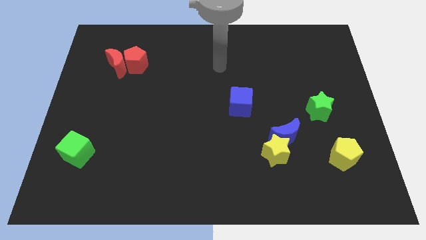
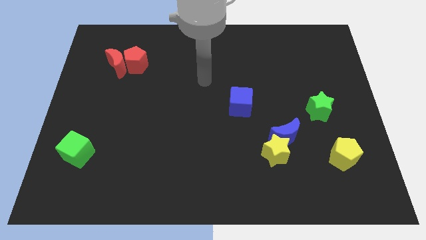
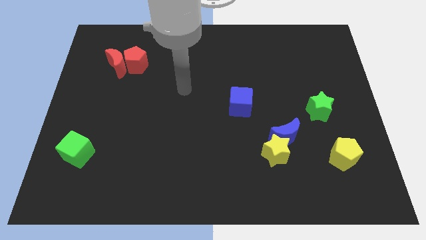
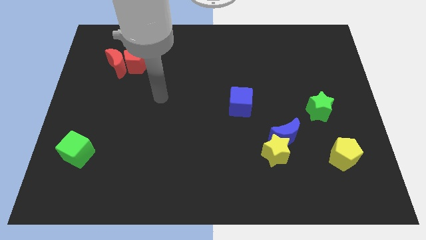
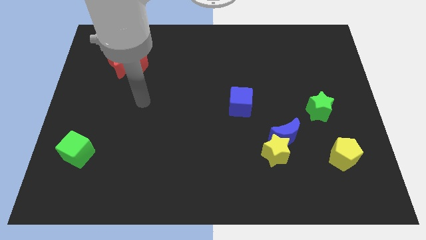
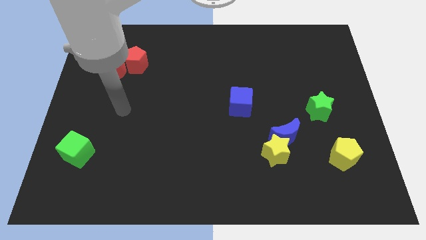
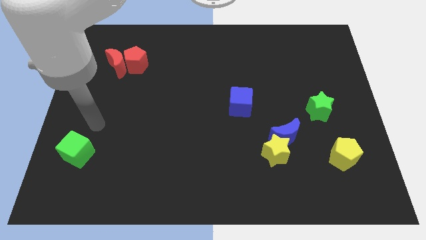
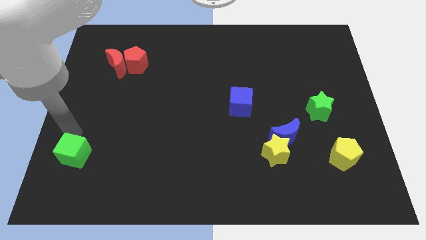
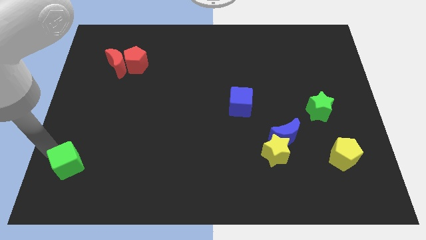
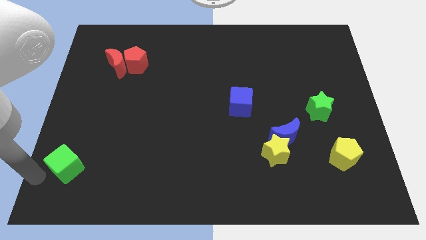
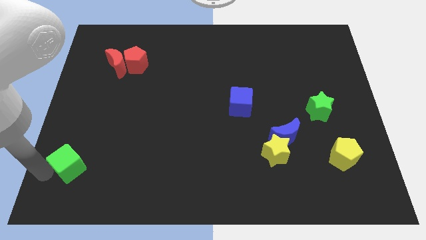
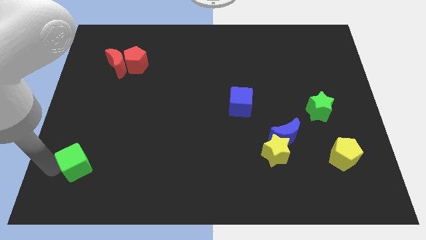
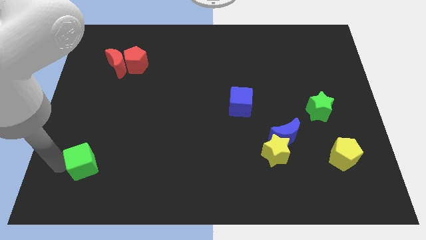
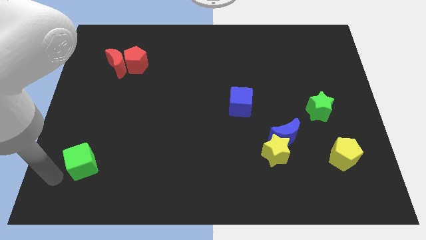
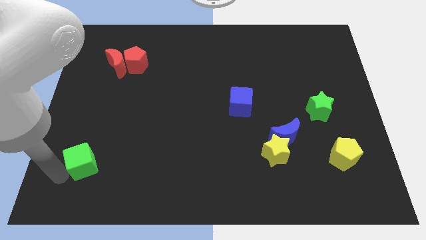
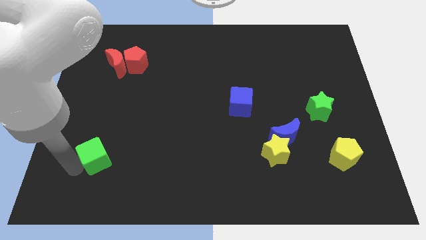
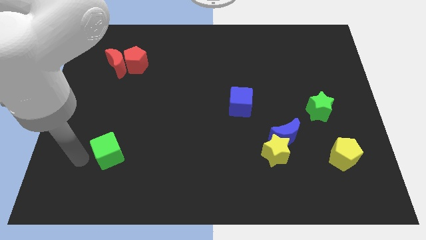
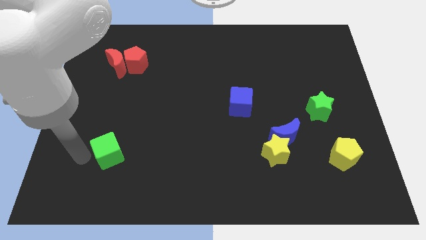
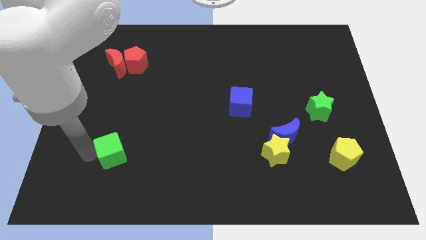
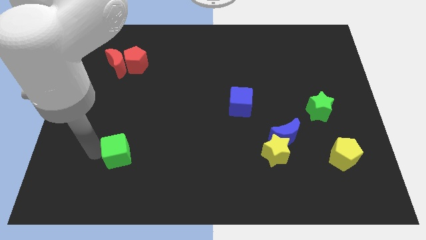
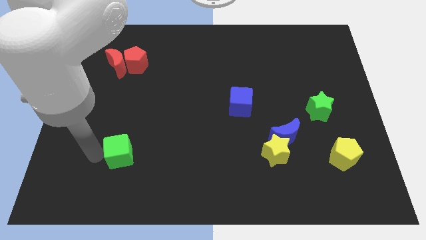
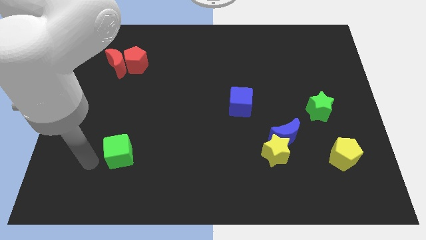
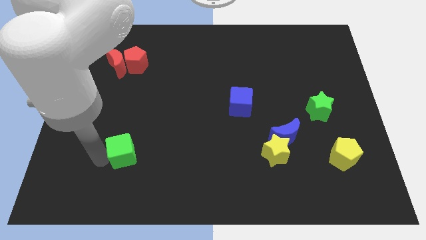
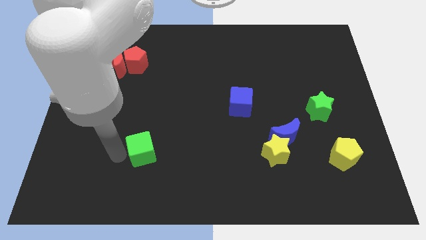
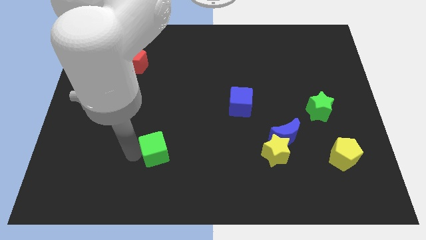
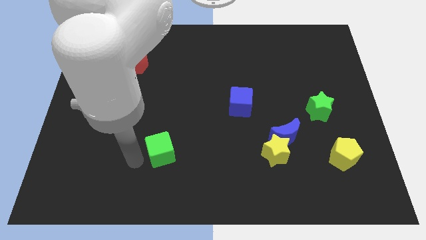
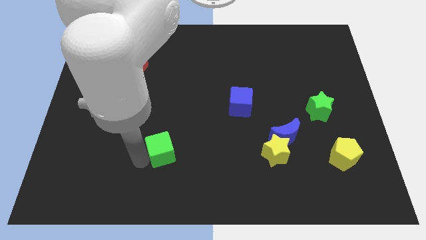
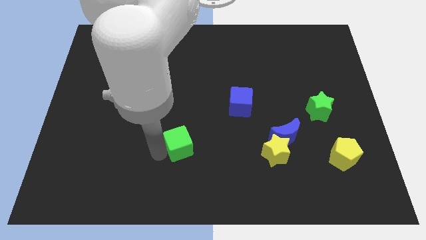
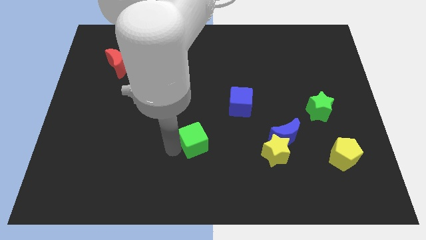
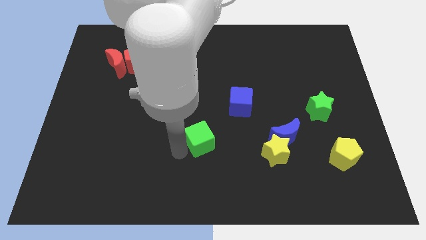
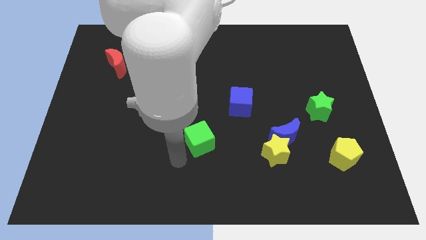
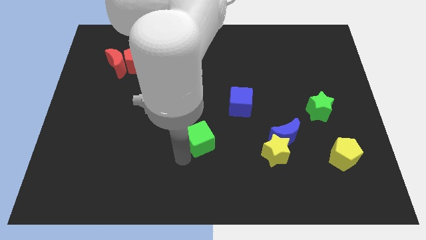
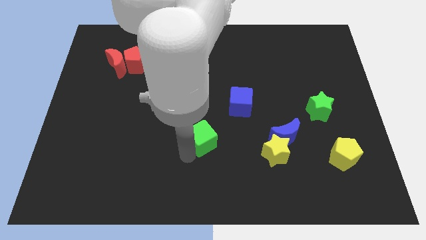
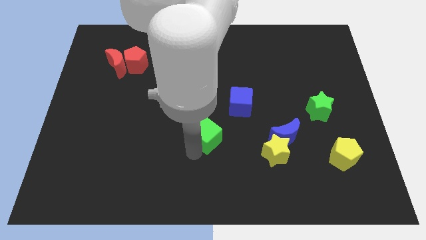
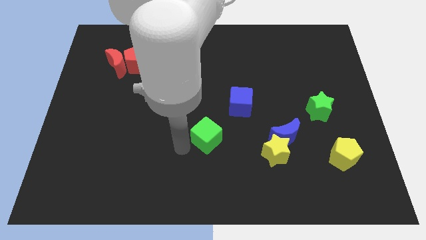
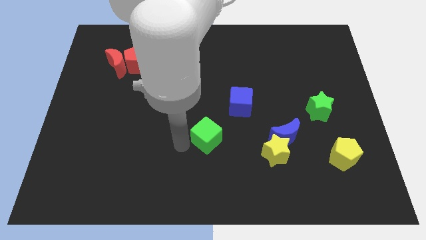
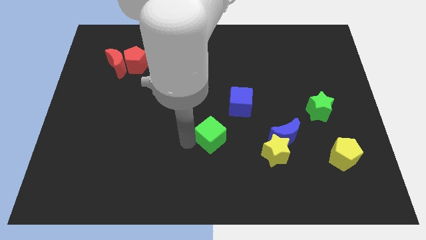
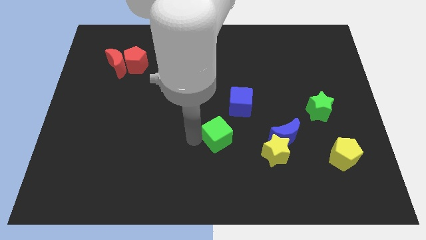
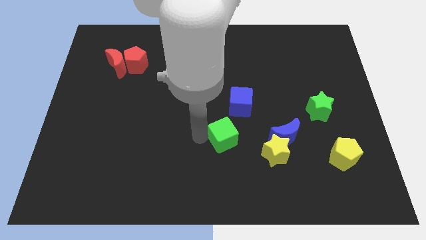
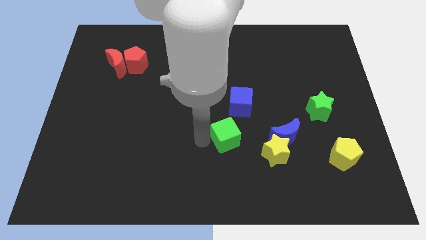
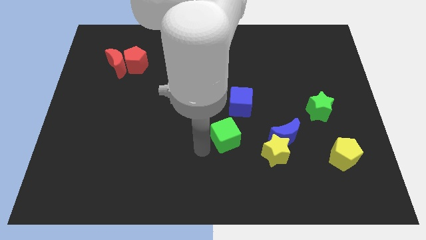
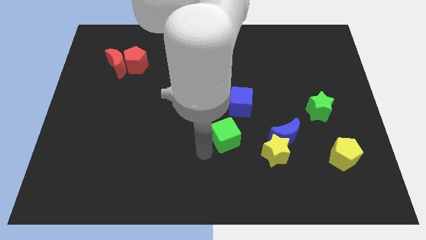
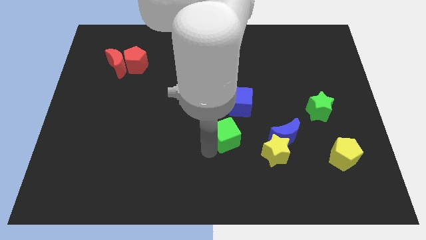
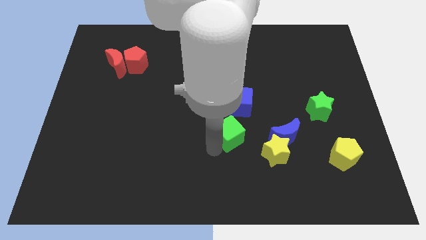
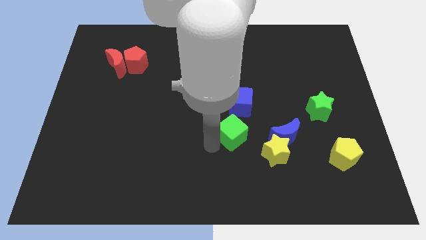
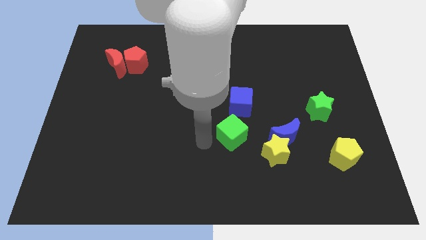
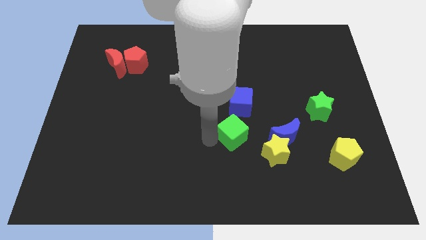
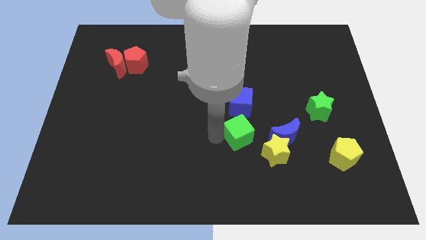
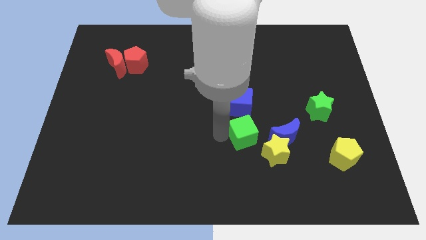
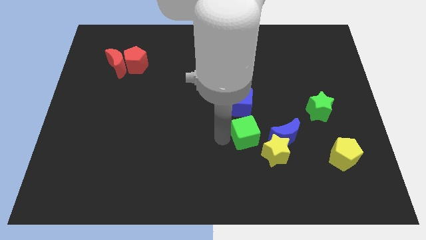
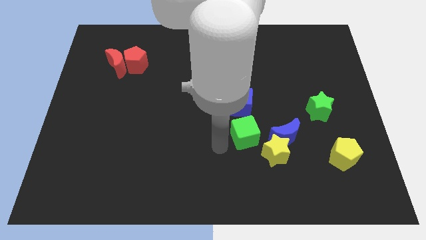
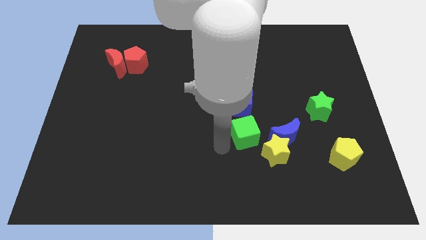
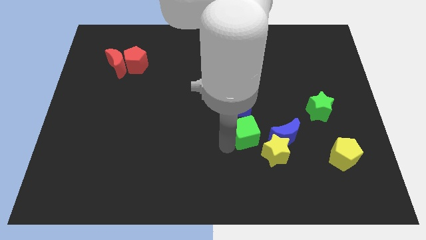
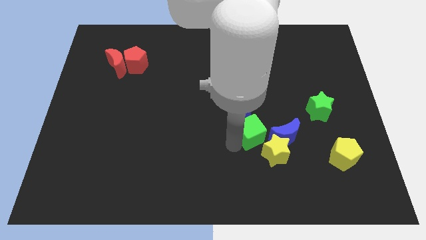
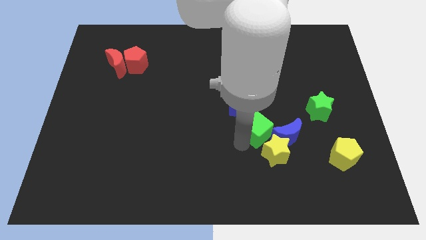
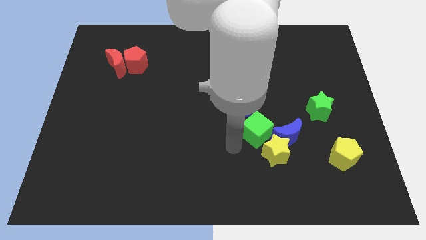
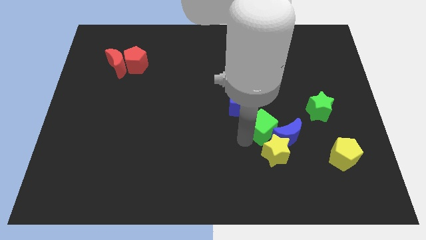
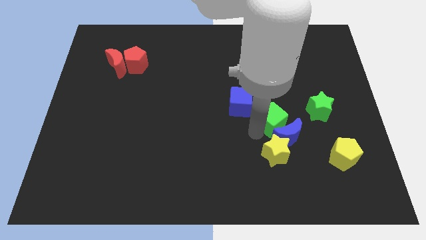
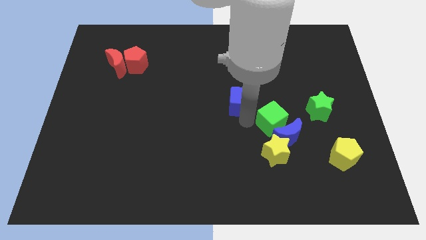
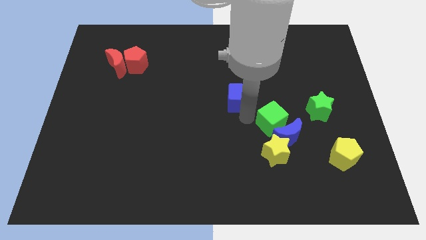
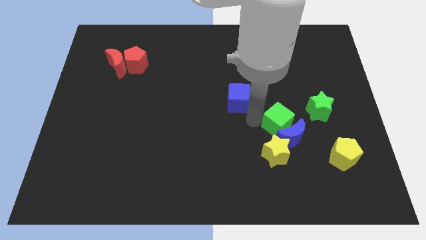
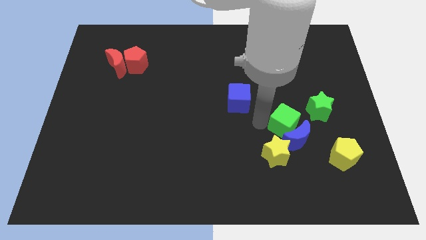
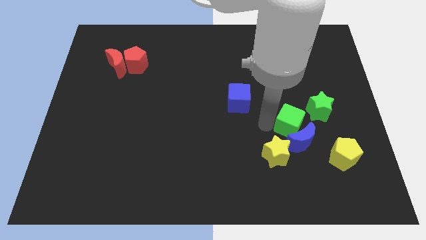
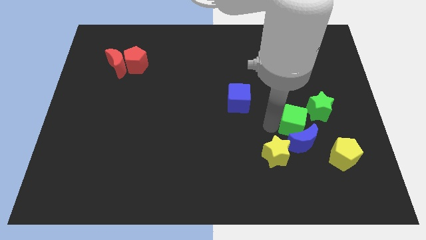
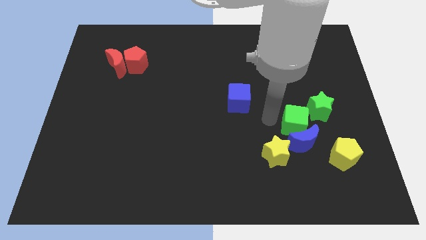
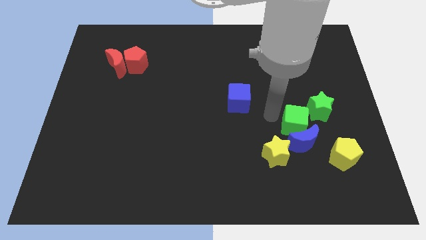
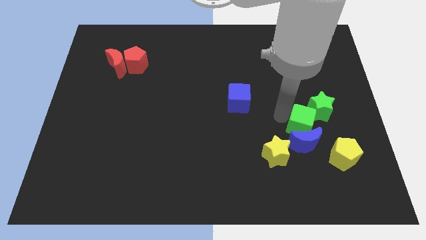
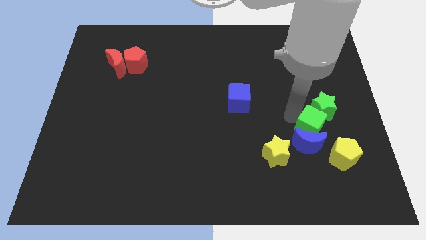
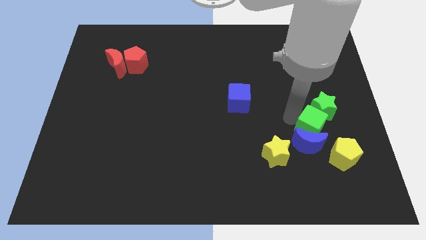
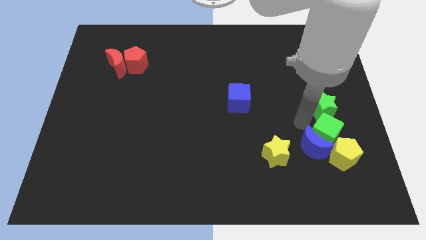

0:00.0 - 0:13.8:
push the green cube right of the blue moon
